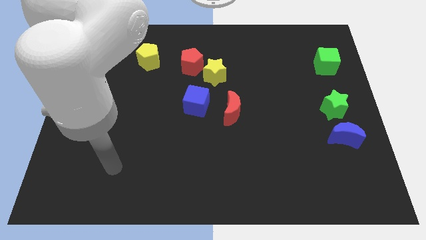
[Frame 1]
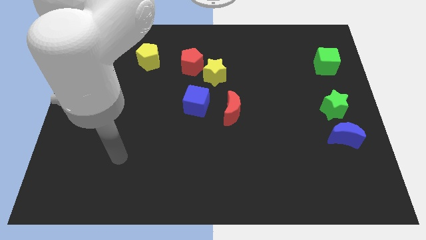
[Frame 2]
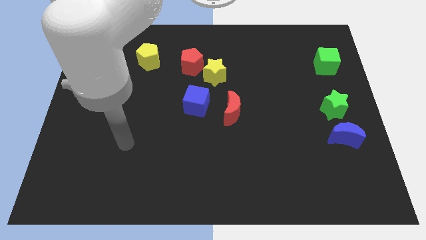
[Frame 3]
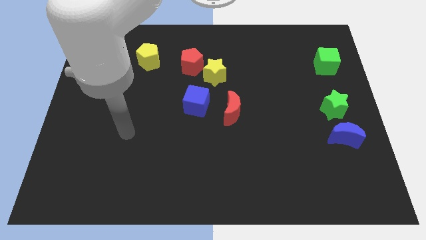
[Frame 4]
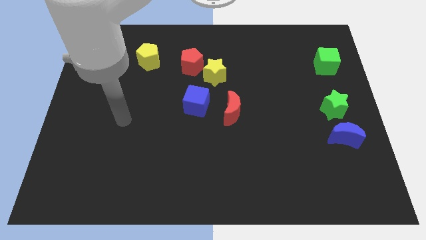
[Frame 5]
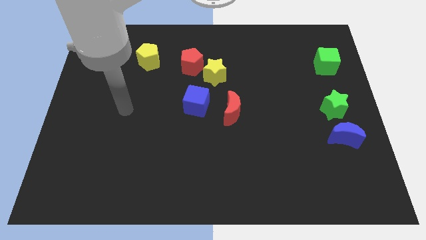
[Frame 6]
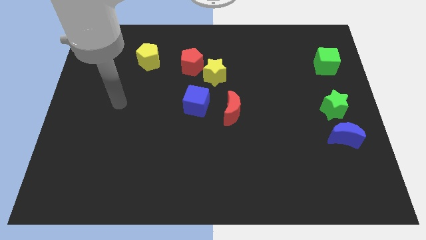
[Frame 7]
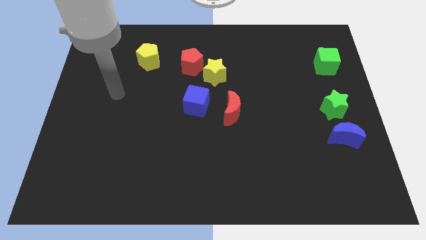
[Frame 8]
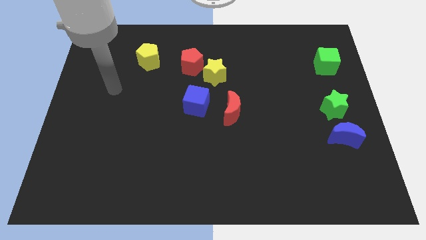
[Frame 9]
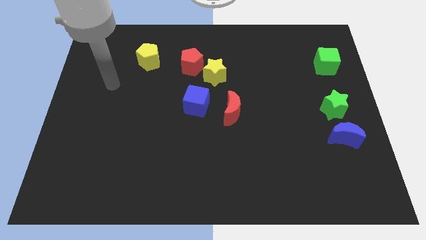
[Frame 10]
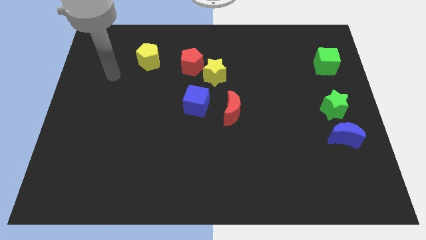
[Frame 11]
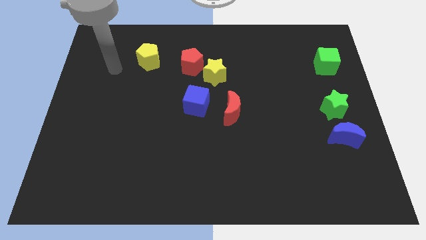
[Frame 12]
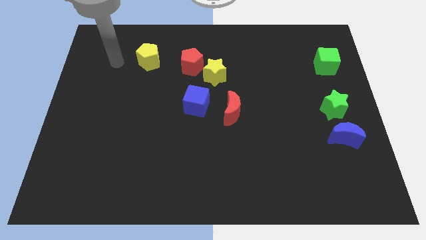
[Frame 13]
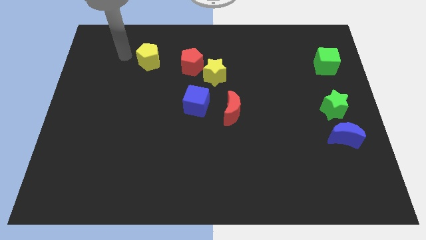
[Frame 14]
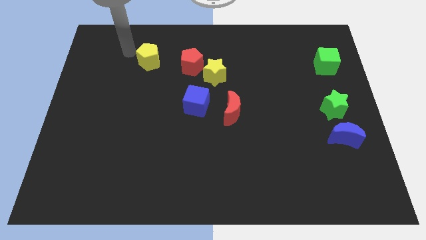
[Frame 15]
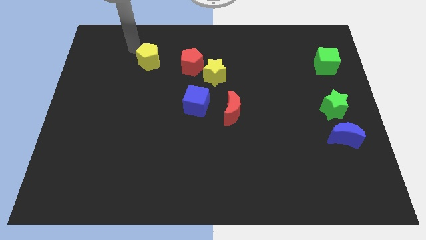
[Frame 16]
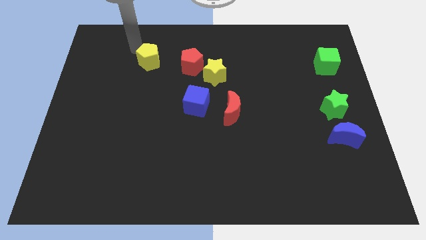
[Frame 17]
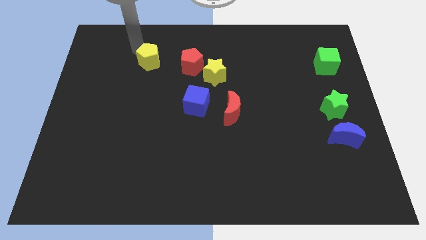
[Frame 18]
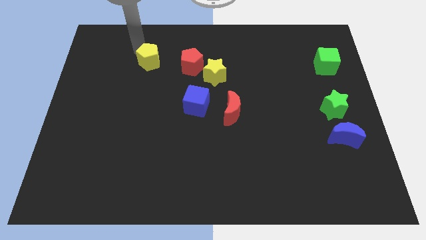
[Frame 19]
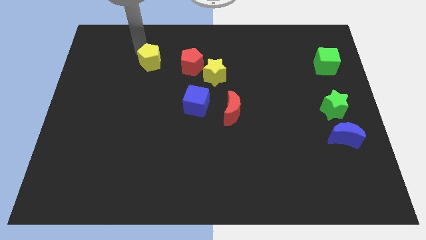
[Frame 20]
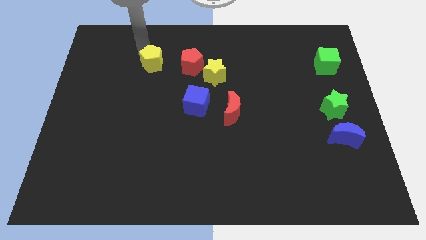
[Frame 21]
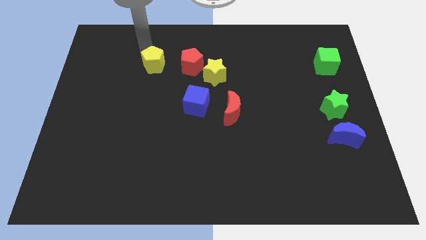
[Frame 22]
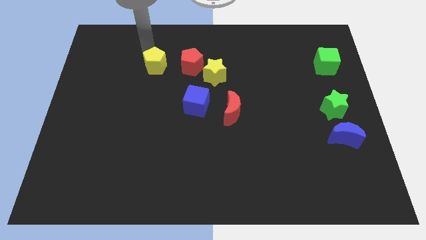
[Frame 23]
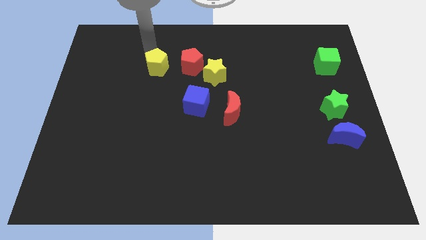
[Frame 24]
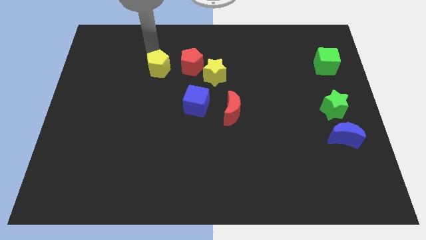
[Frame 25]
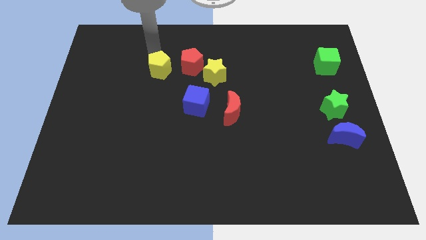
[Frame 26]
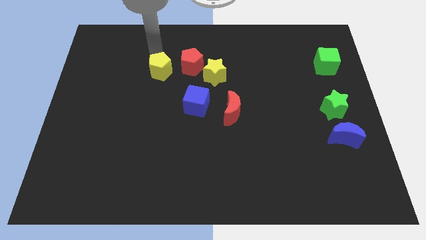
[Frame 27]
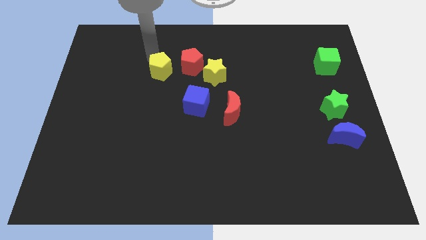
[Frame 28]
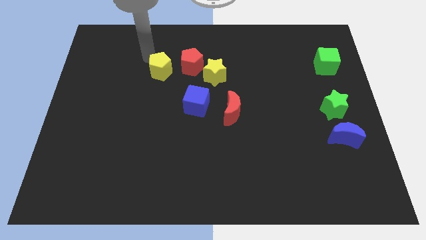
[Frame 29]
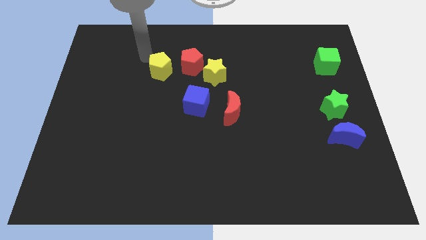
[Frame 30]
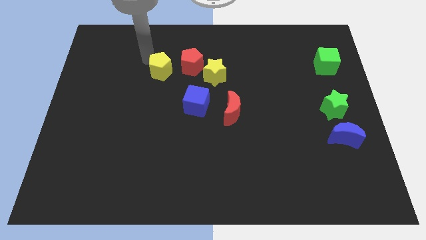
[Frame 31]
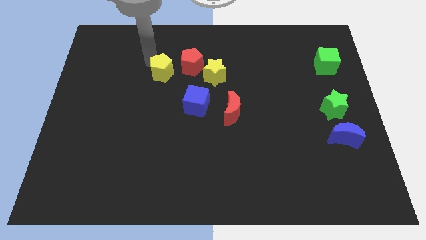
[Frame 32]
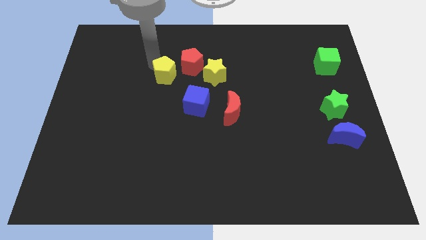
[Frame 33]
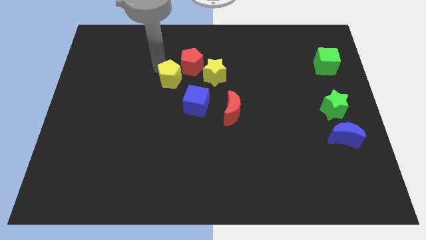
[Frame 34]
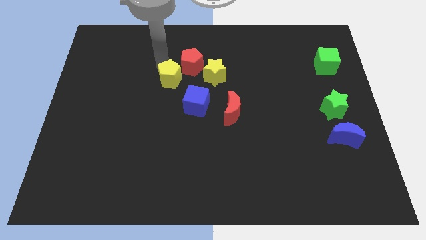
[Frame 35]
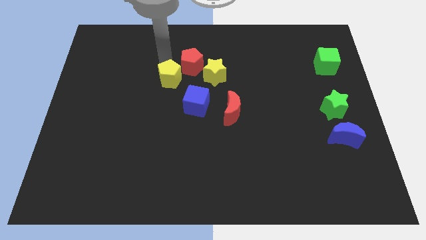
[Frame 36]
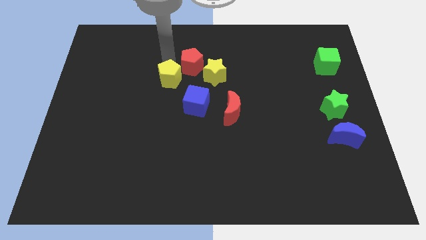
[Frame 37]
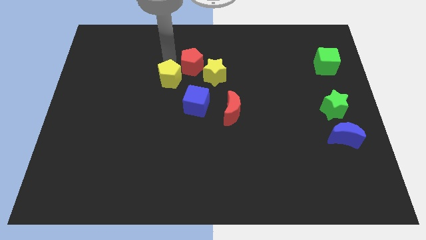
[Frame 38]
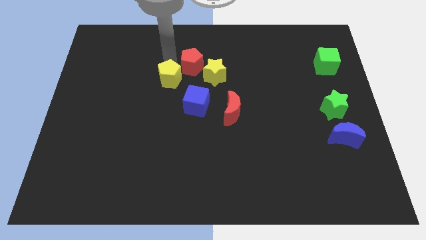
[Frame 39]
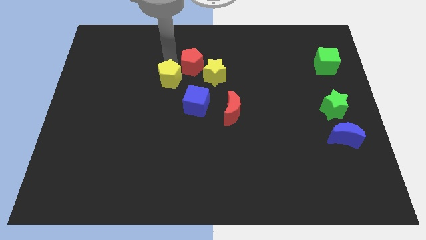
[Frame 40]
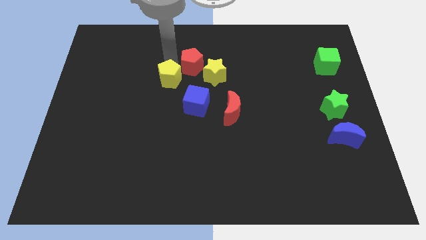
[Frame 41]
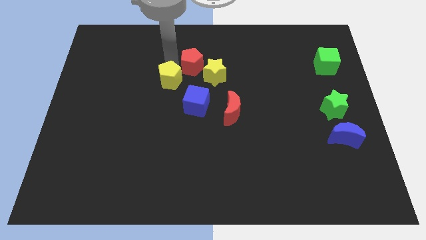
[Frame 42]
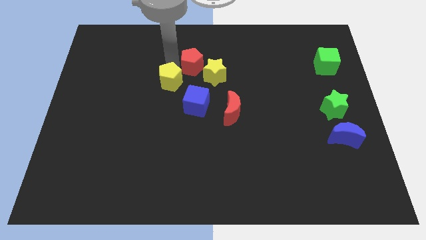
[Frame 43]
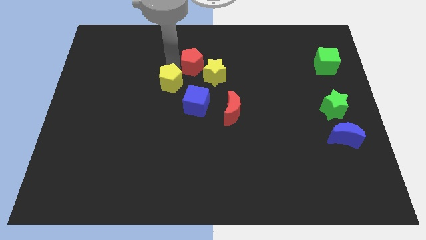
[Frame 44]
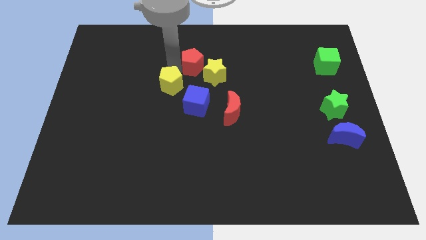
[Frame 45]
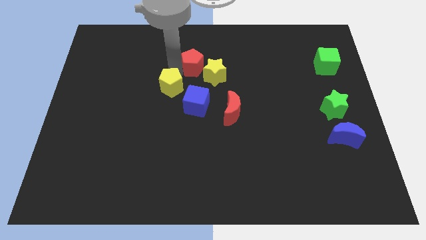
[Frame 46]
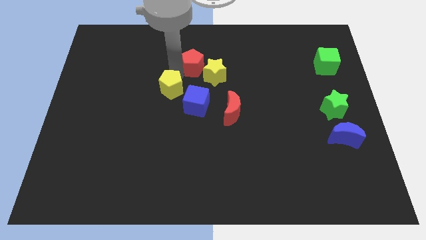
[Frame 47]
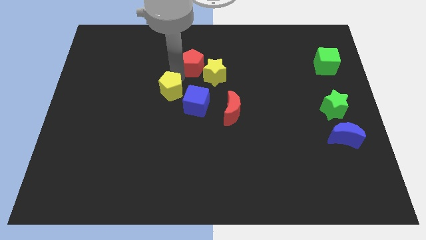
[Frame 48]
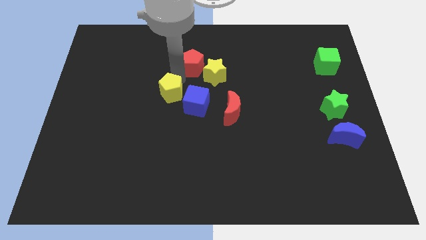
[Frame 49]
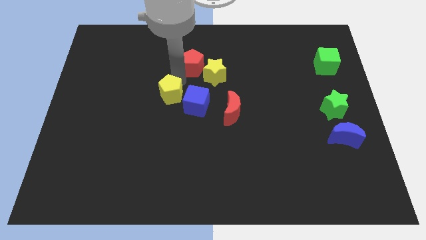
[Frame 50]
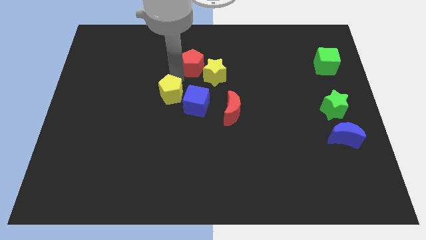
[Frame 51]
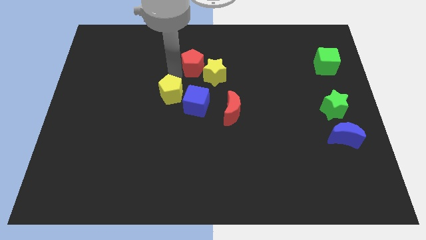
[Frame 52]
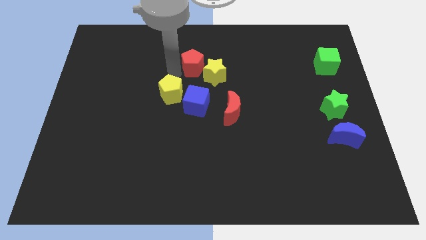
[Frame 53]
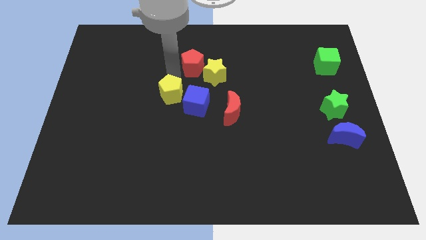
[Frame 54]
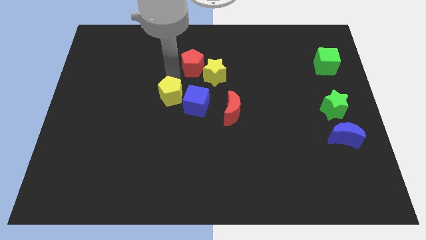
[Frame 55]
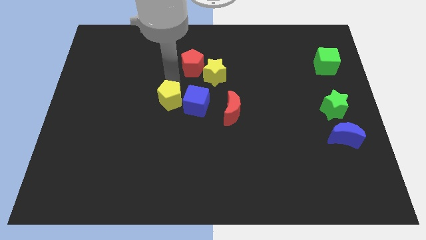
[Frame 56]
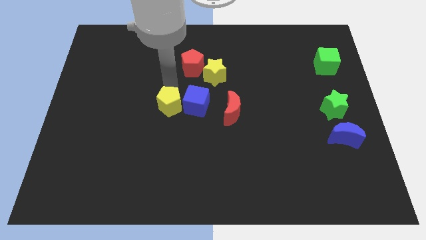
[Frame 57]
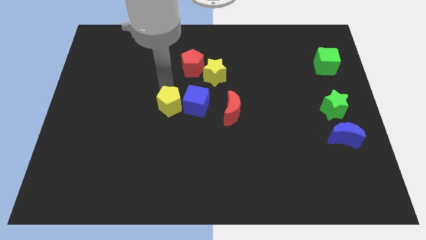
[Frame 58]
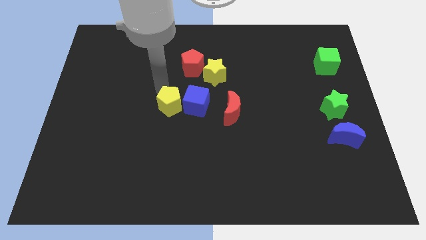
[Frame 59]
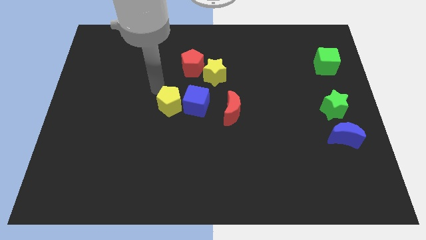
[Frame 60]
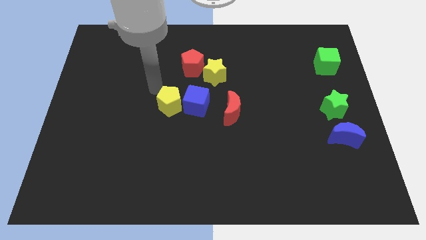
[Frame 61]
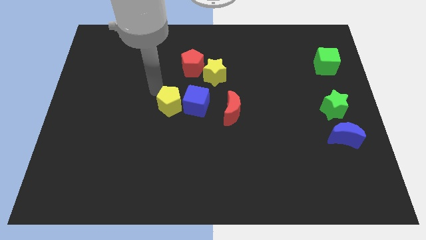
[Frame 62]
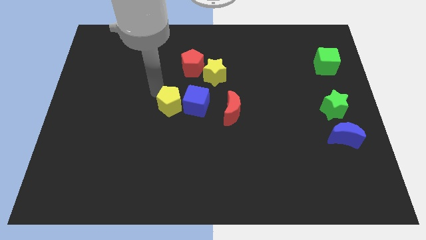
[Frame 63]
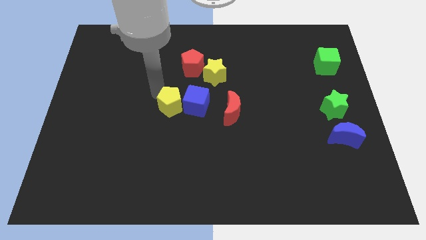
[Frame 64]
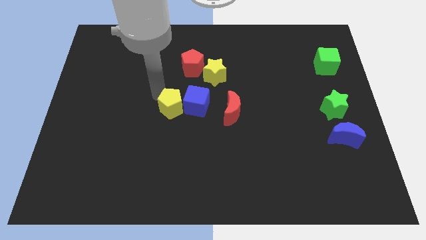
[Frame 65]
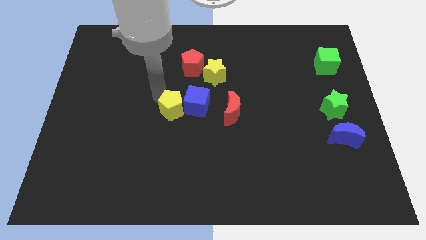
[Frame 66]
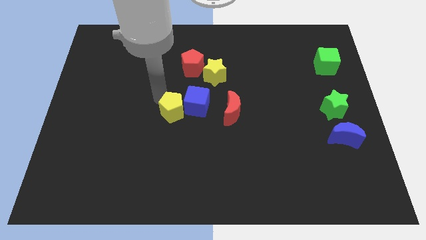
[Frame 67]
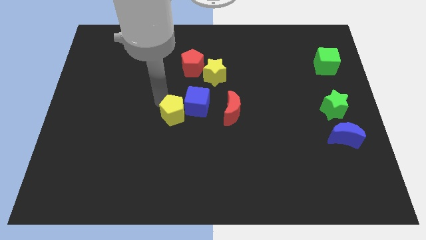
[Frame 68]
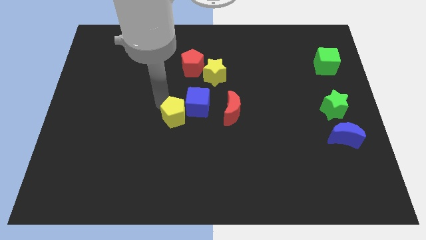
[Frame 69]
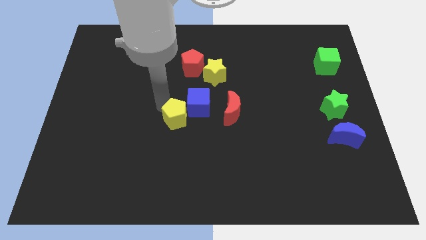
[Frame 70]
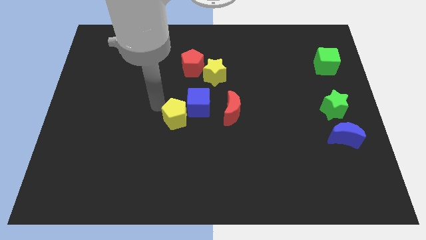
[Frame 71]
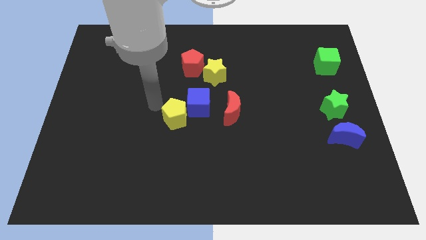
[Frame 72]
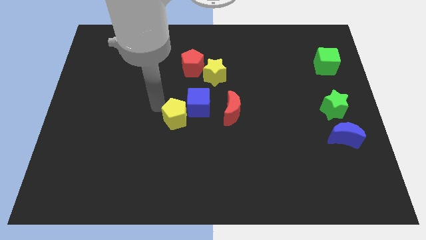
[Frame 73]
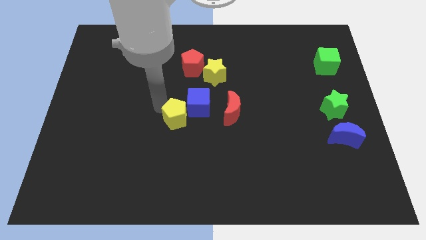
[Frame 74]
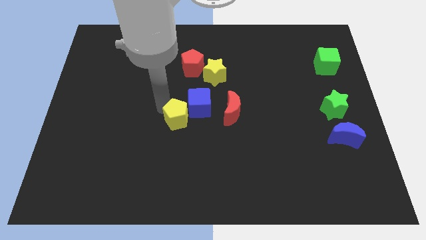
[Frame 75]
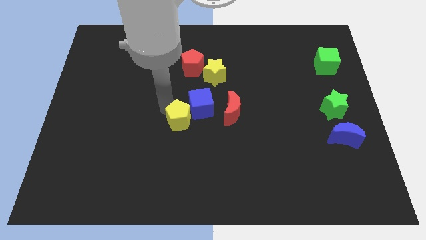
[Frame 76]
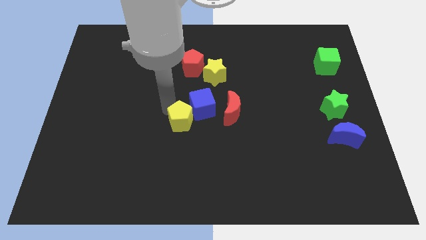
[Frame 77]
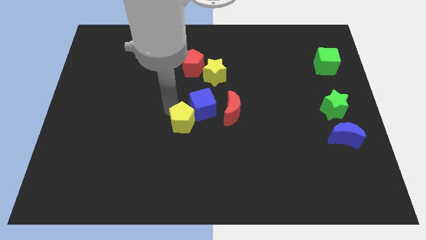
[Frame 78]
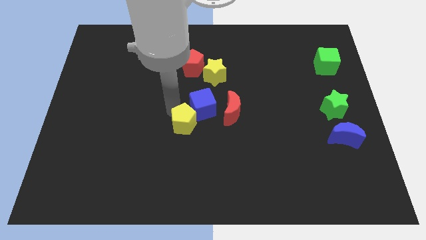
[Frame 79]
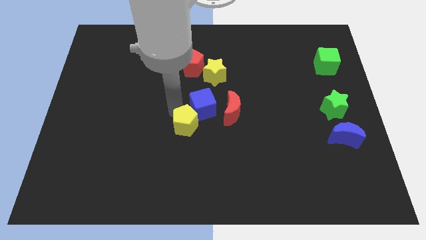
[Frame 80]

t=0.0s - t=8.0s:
push the yellow pentagon diagonally down and right
